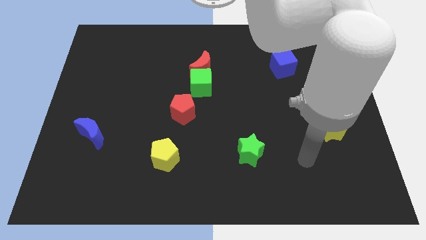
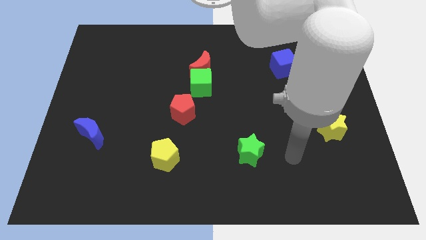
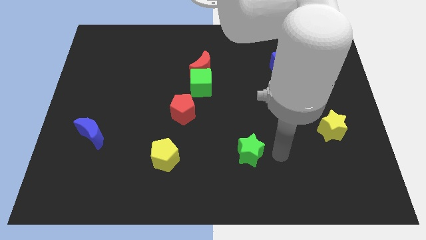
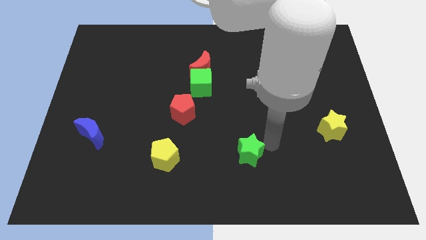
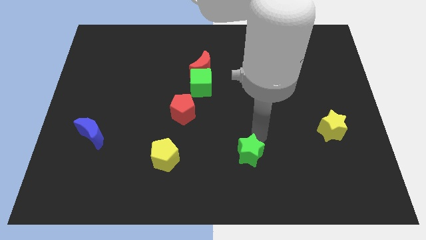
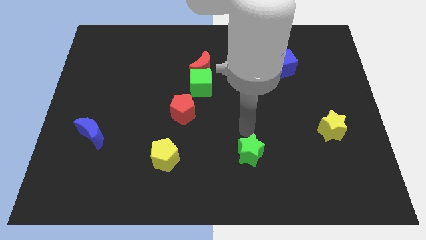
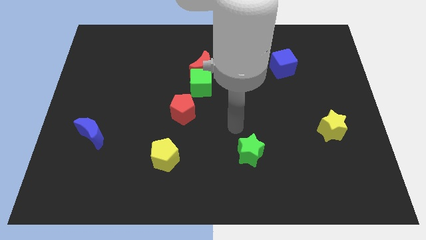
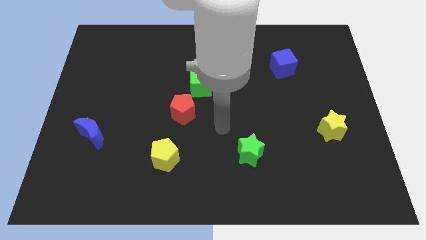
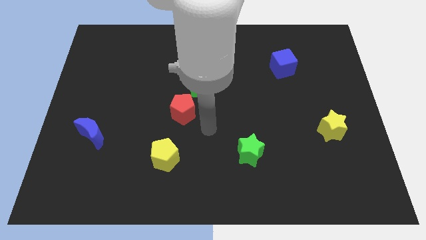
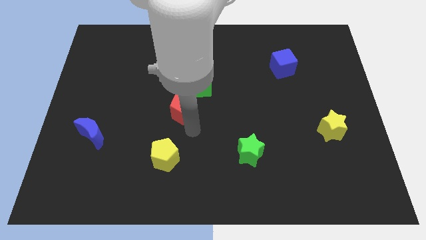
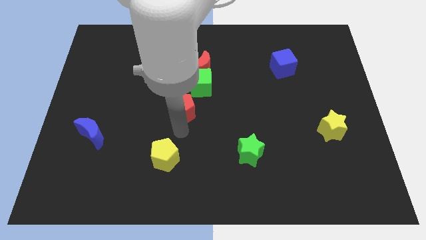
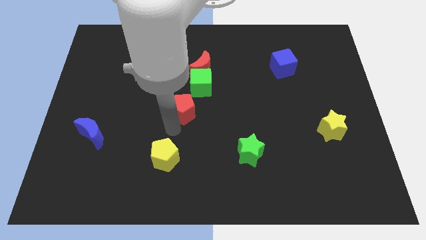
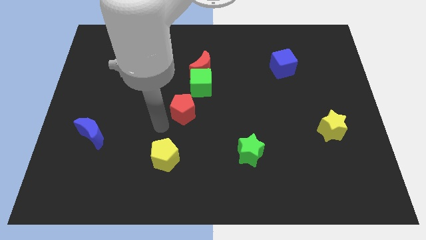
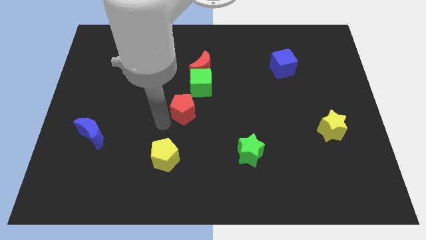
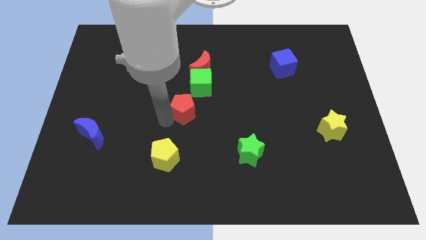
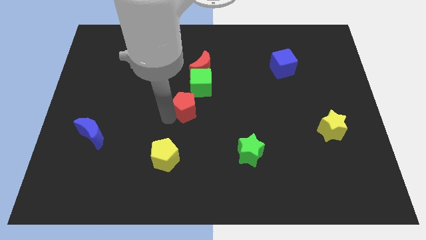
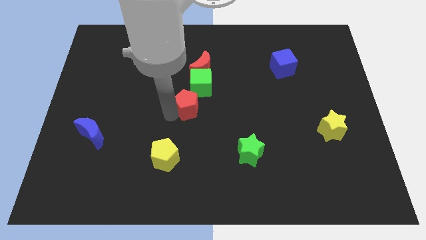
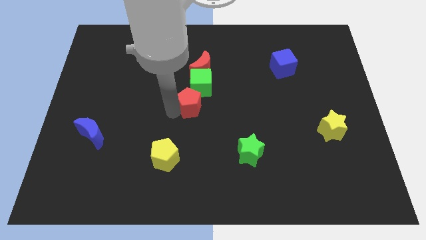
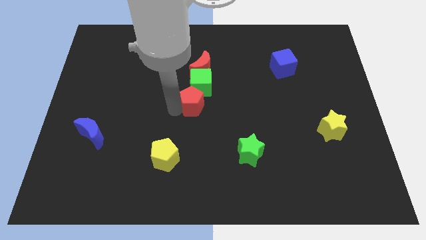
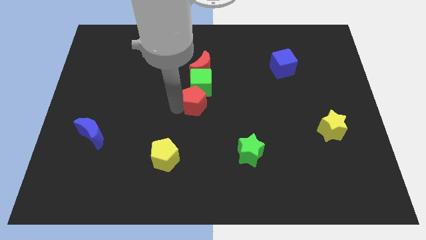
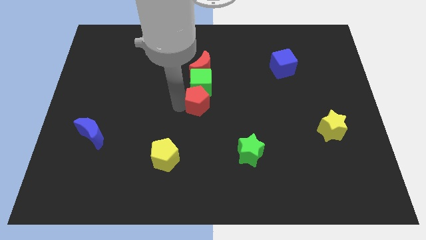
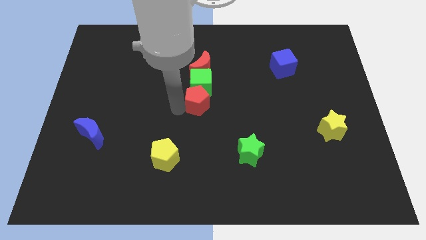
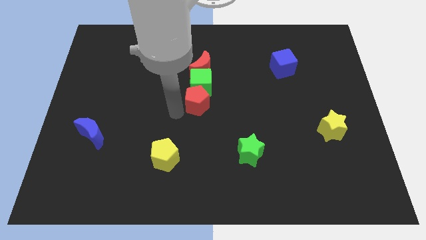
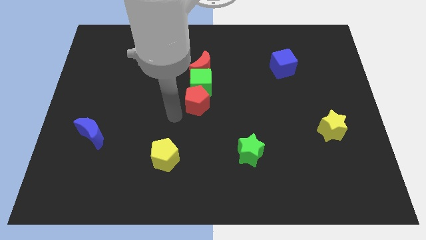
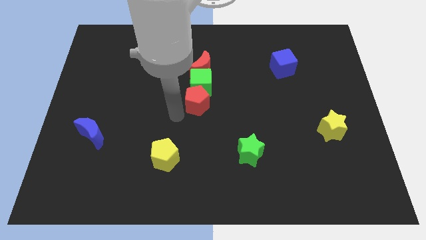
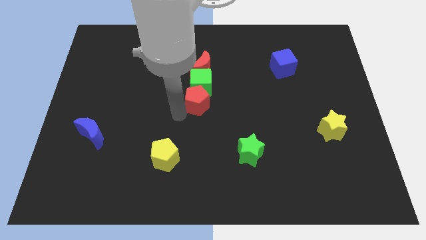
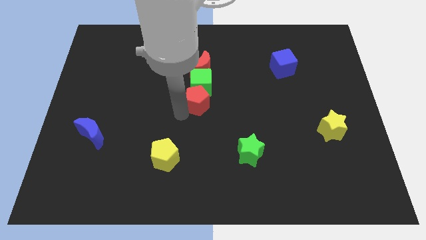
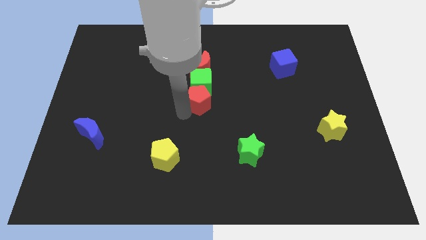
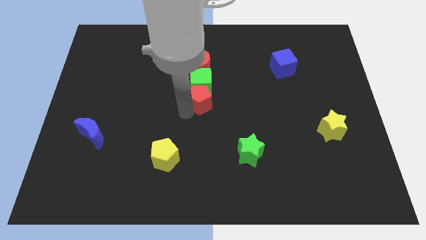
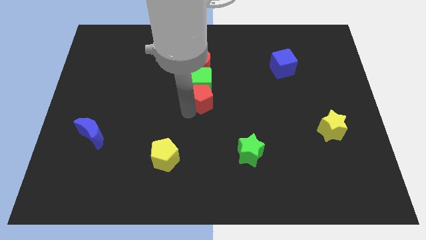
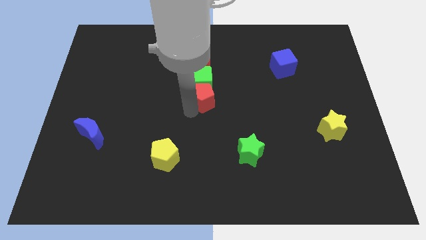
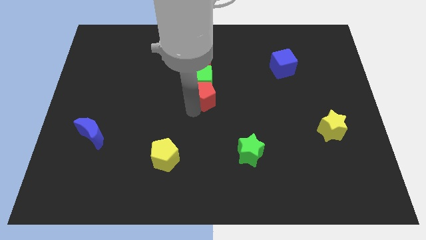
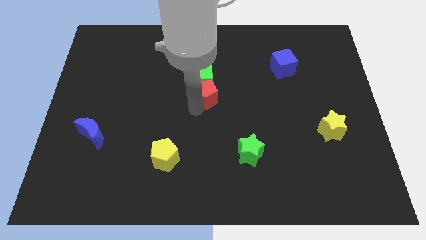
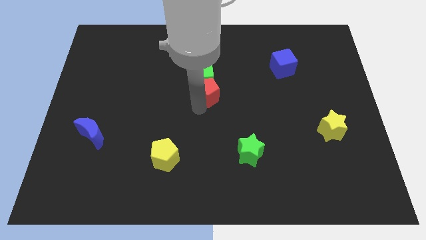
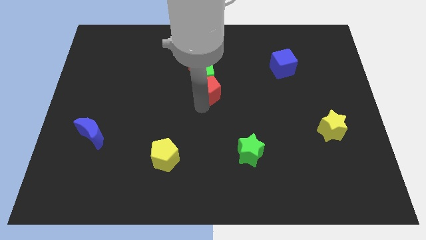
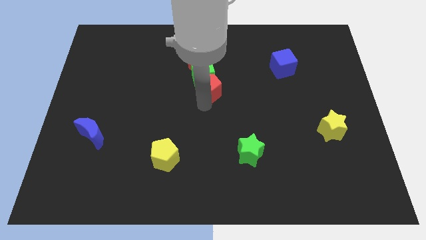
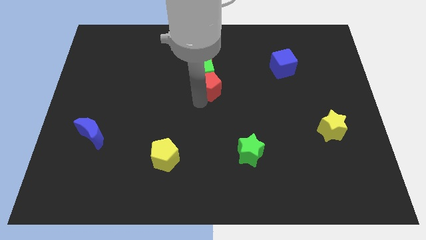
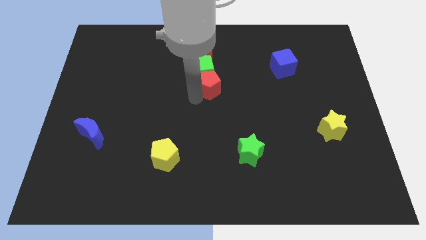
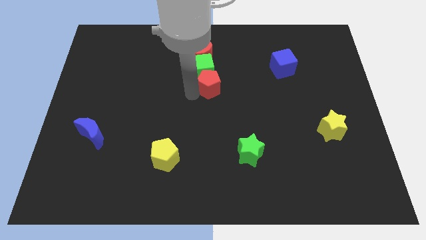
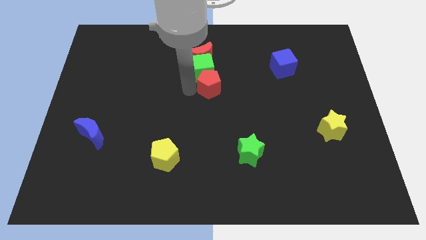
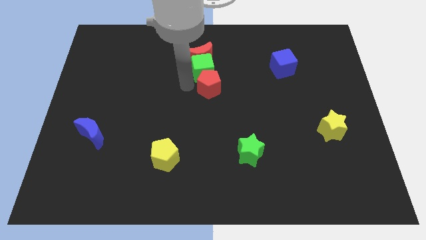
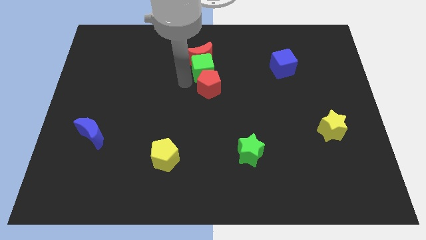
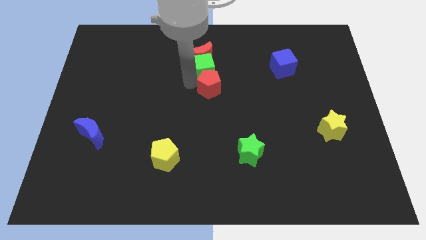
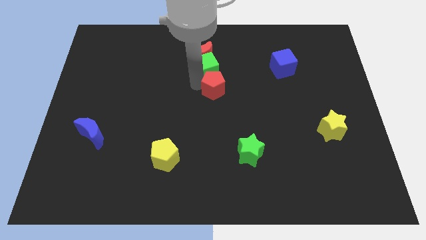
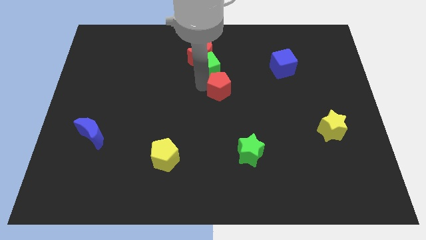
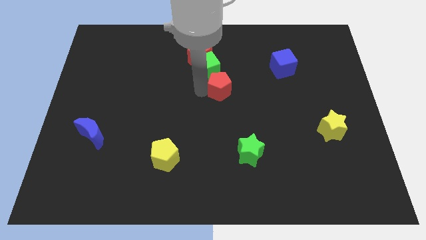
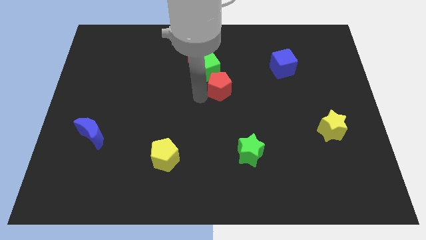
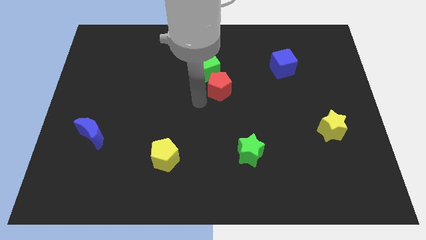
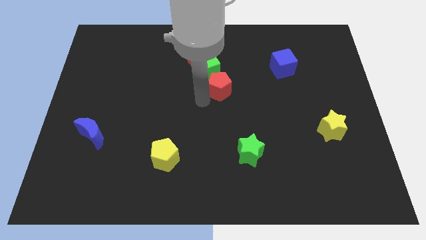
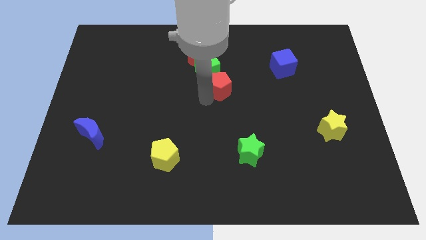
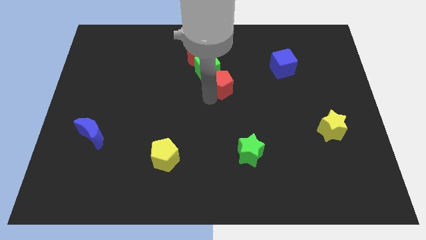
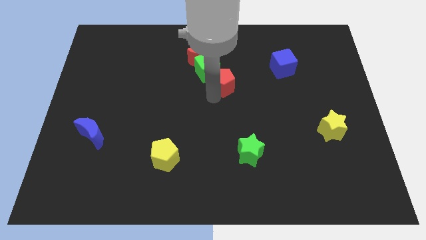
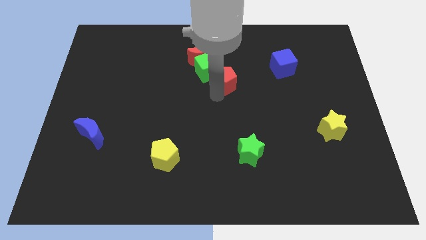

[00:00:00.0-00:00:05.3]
slide the red pentagon right of the green cube

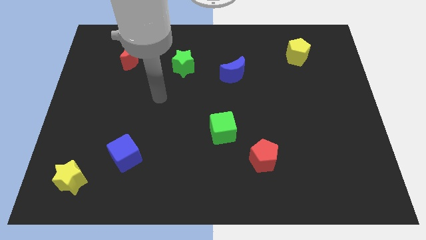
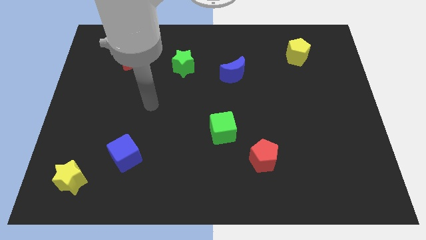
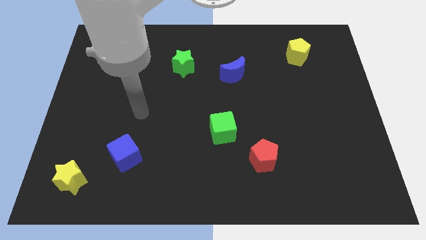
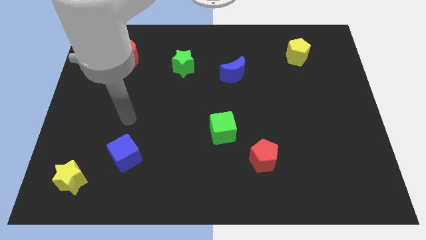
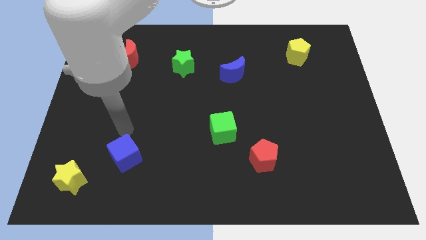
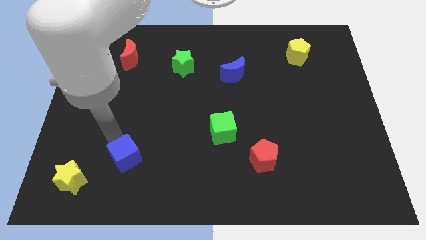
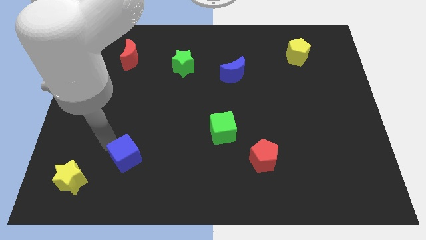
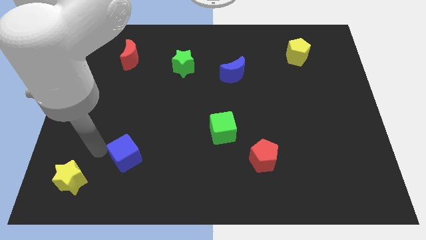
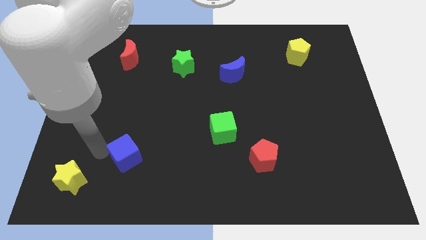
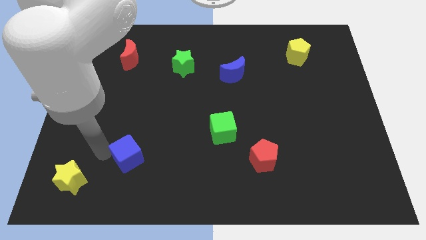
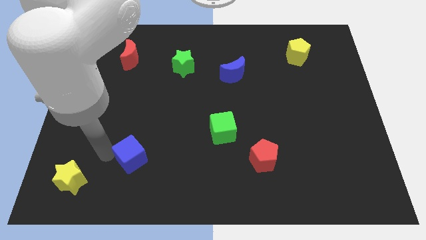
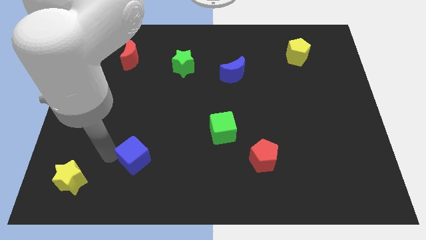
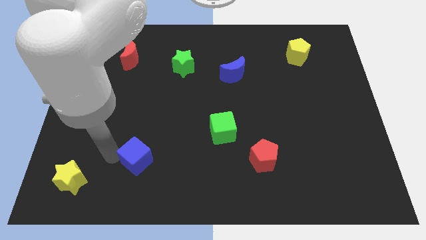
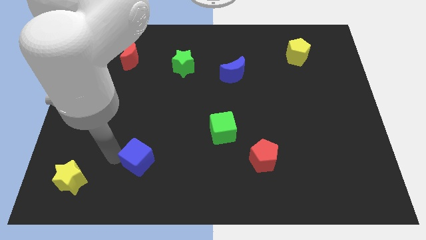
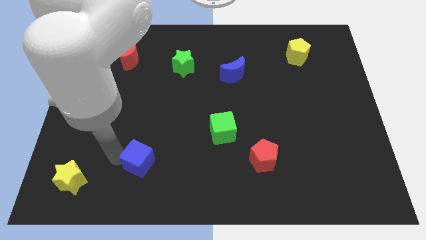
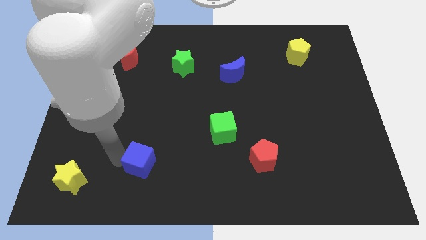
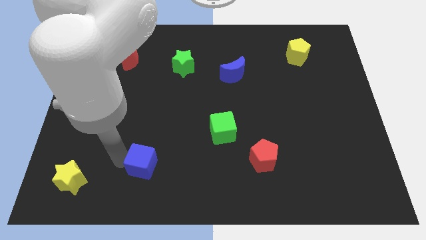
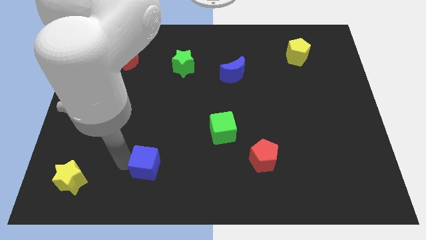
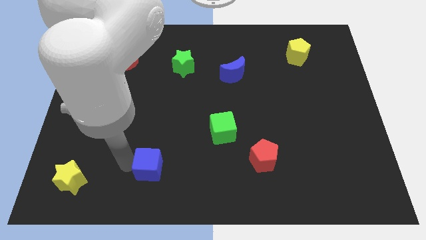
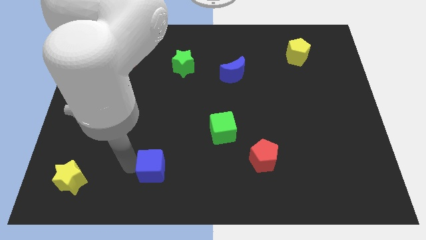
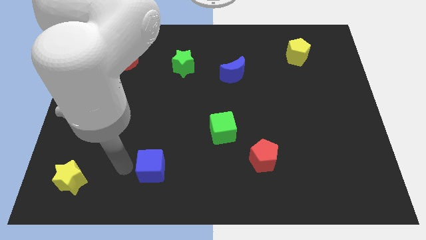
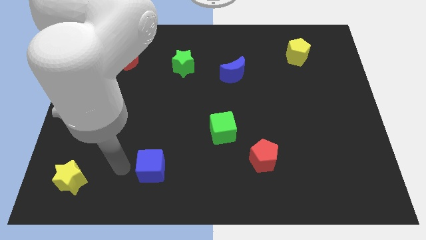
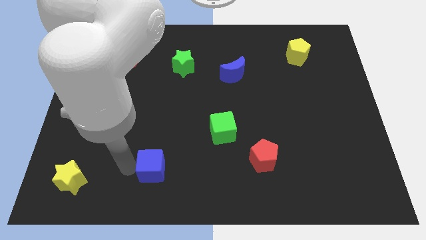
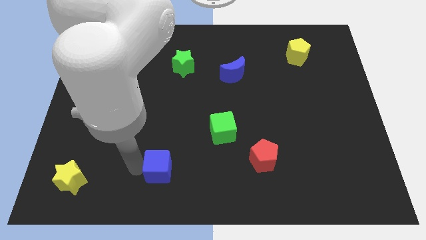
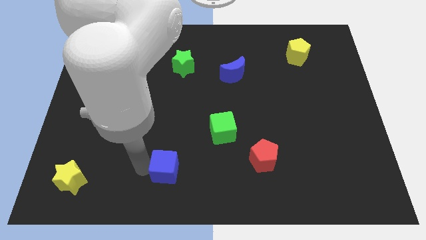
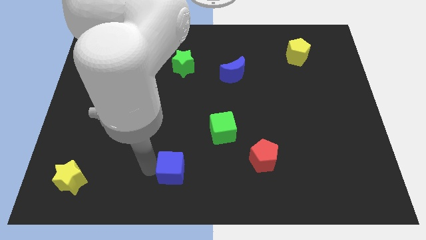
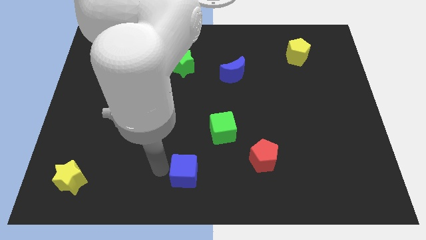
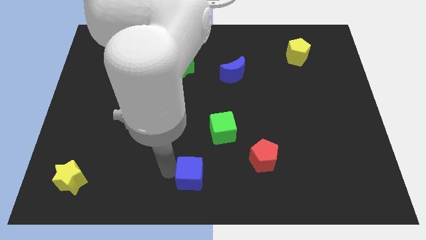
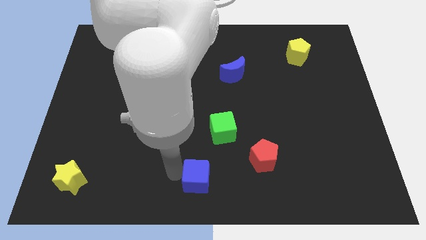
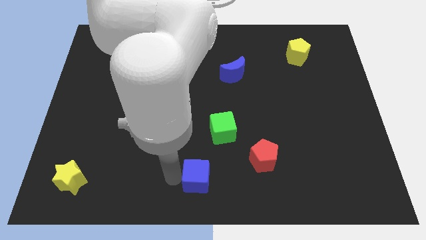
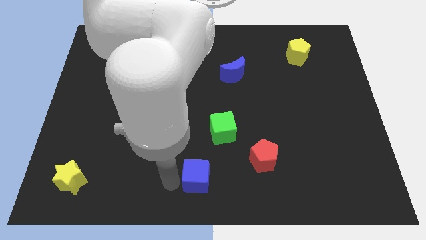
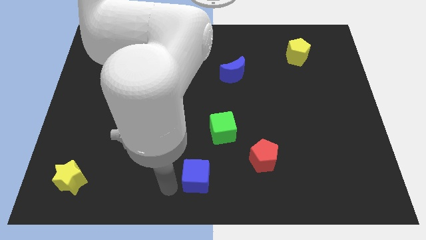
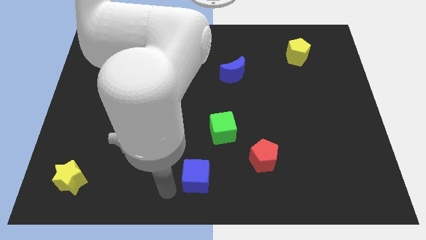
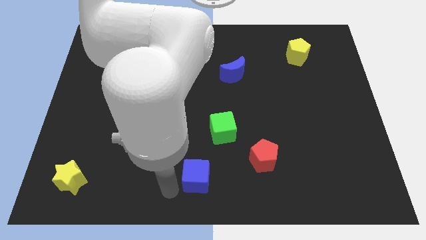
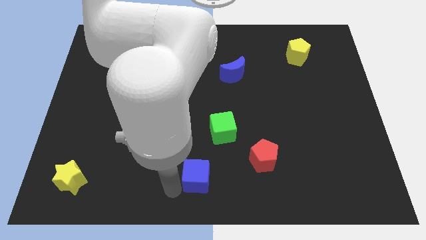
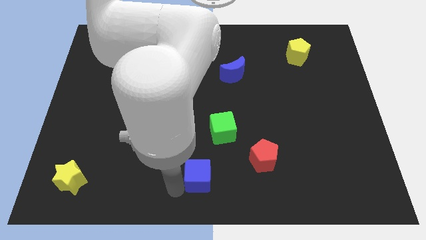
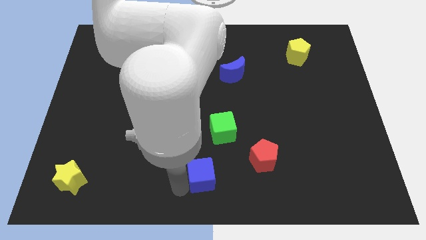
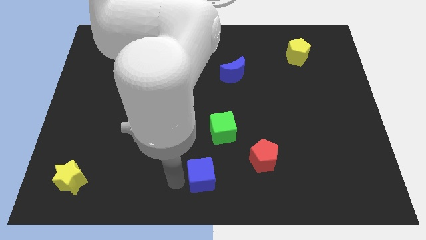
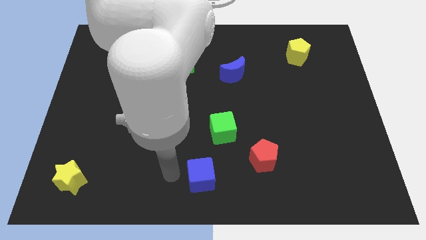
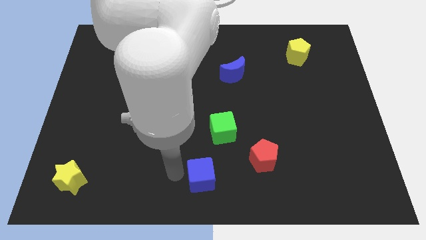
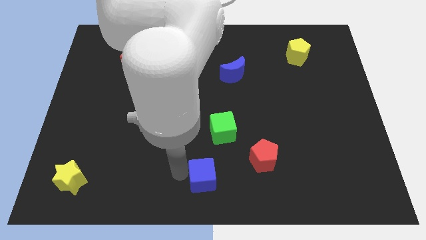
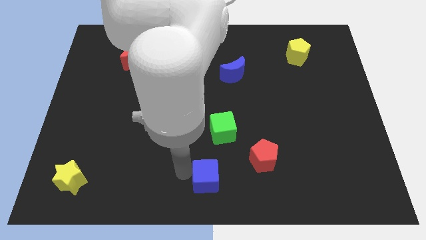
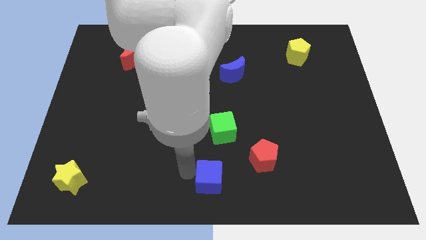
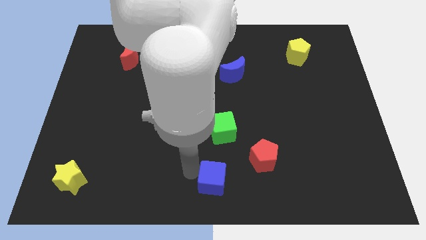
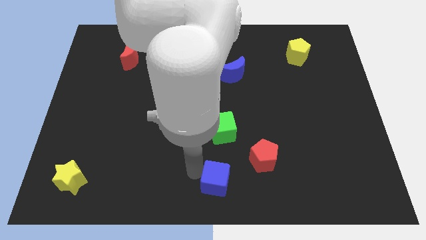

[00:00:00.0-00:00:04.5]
slide the blue cube to the bottom left of the red pentagon
